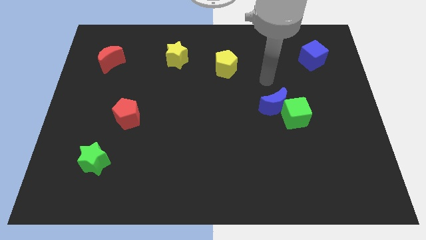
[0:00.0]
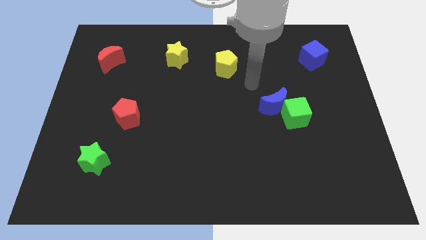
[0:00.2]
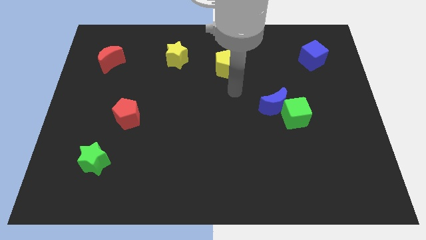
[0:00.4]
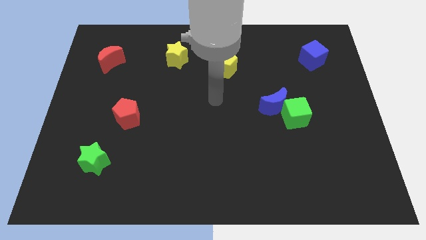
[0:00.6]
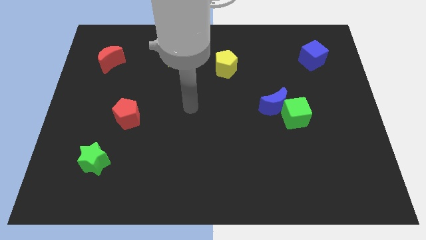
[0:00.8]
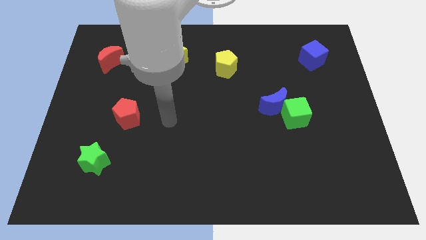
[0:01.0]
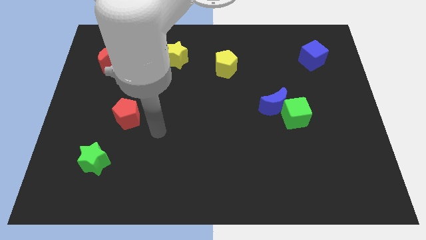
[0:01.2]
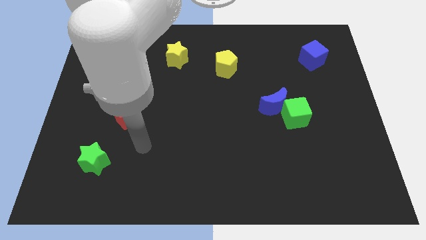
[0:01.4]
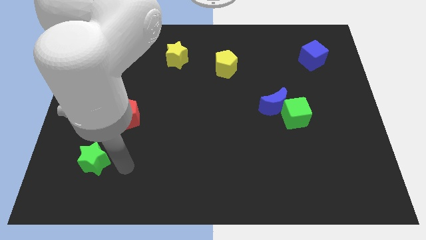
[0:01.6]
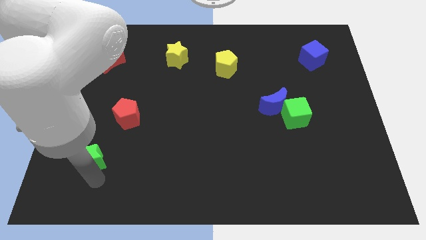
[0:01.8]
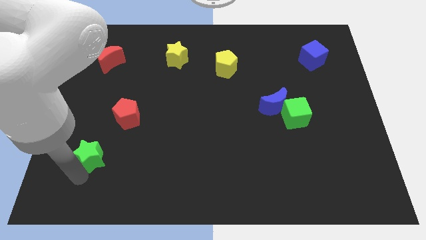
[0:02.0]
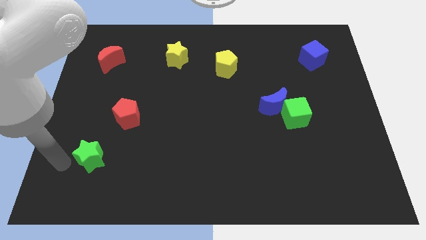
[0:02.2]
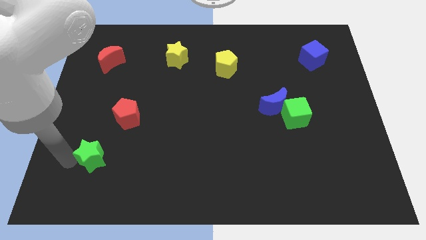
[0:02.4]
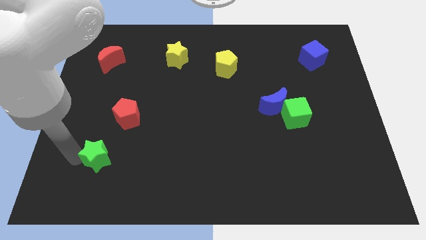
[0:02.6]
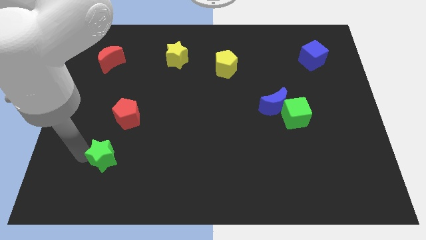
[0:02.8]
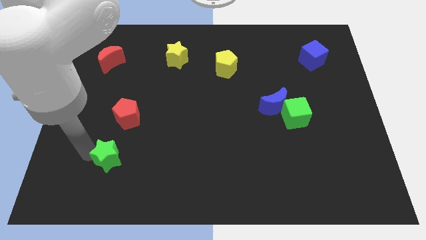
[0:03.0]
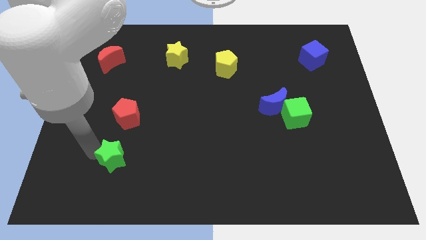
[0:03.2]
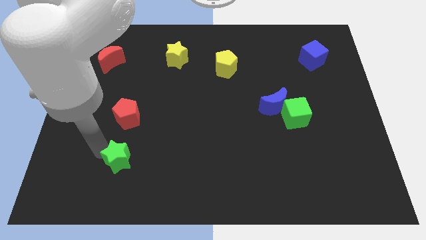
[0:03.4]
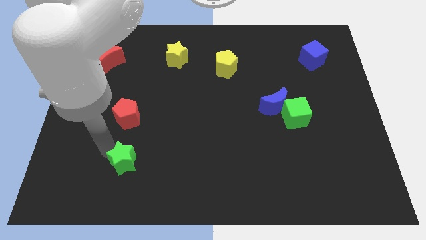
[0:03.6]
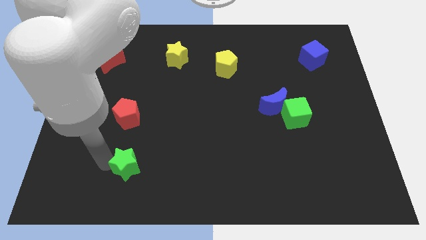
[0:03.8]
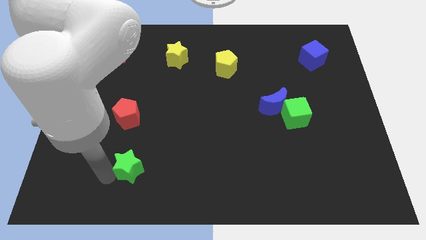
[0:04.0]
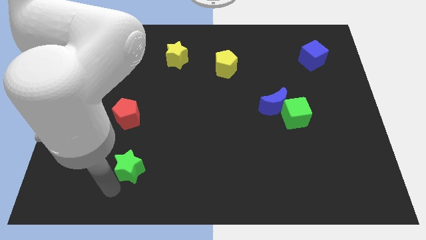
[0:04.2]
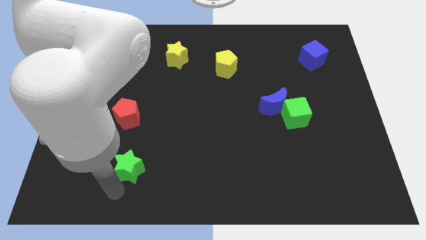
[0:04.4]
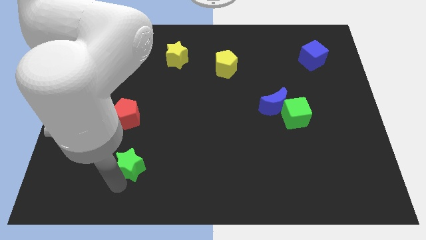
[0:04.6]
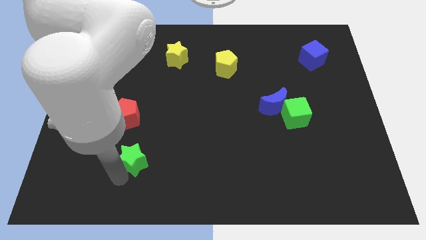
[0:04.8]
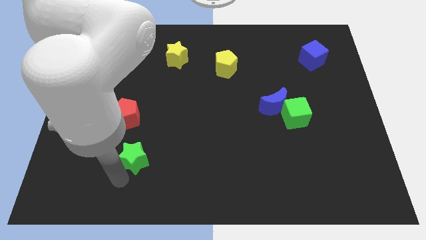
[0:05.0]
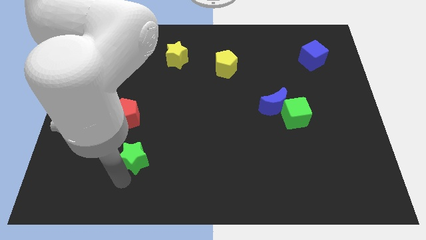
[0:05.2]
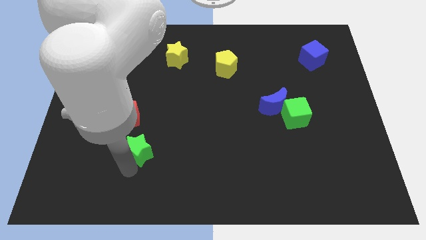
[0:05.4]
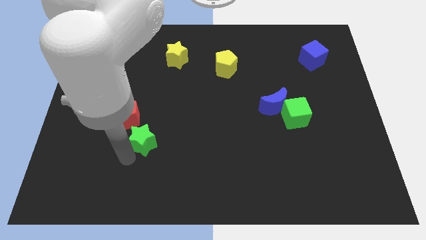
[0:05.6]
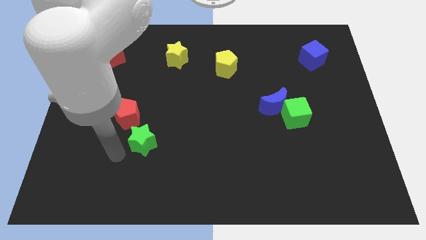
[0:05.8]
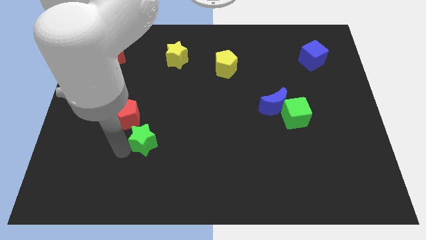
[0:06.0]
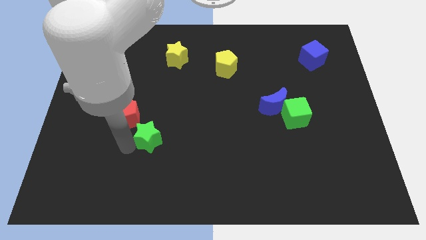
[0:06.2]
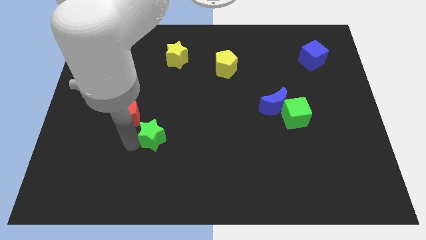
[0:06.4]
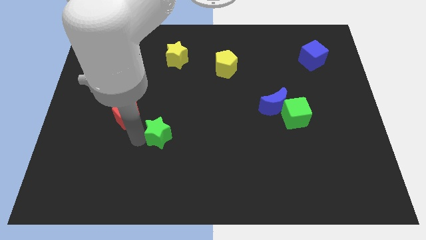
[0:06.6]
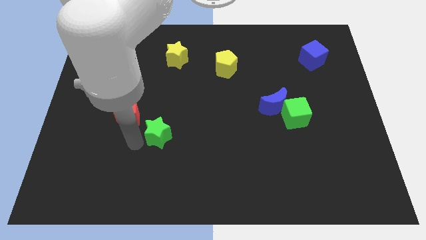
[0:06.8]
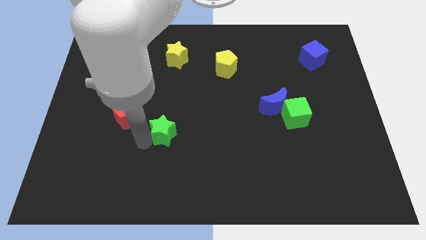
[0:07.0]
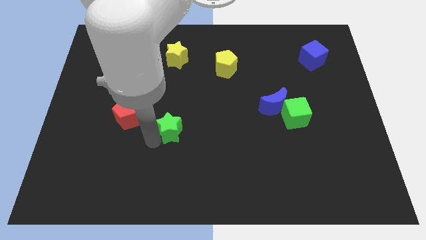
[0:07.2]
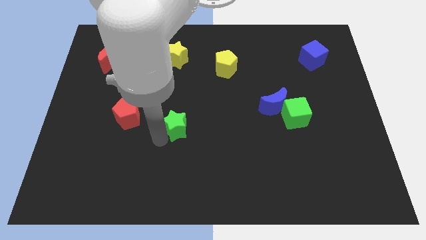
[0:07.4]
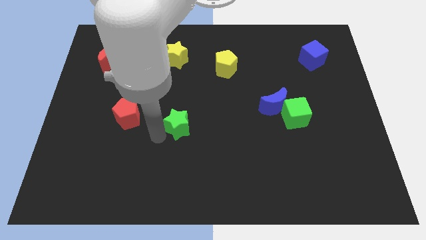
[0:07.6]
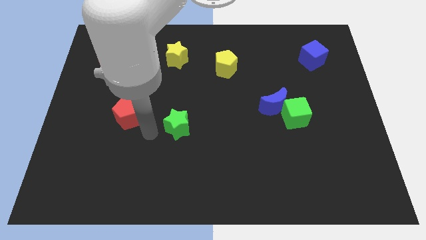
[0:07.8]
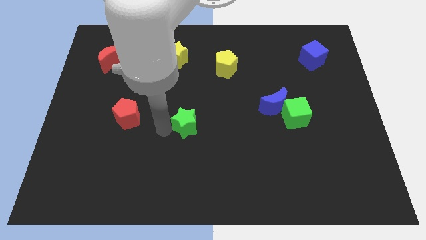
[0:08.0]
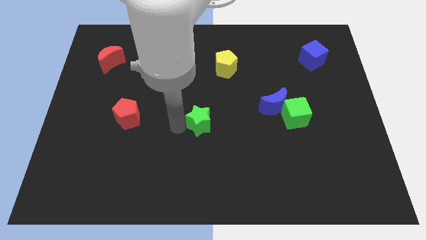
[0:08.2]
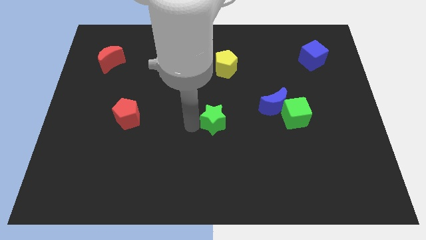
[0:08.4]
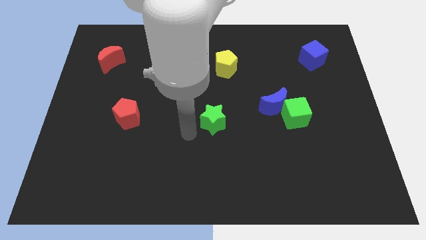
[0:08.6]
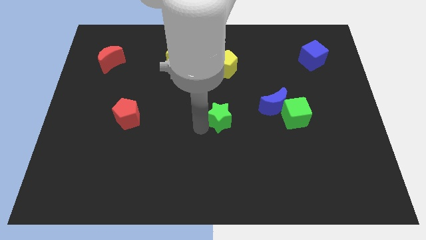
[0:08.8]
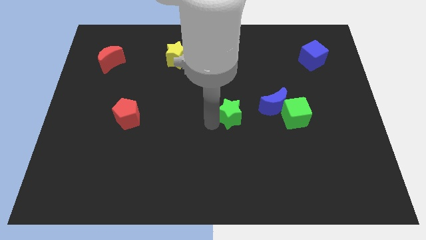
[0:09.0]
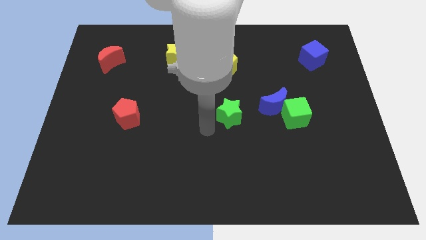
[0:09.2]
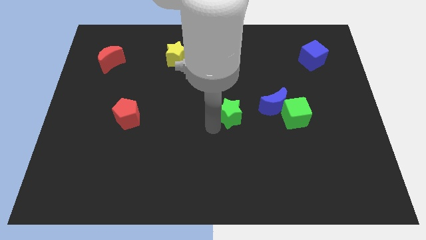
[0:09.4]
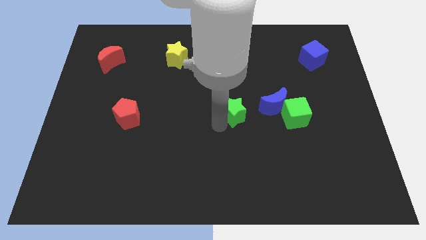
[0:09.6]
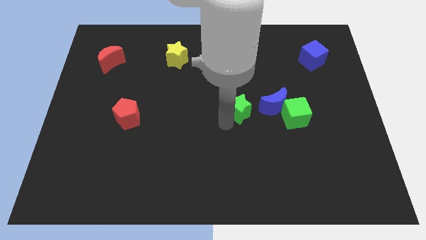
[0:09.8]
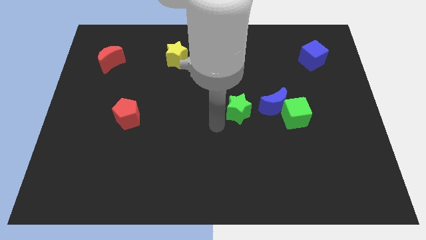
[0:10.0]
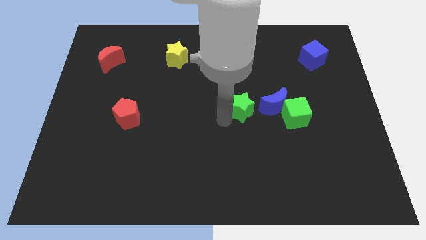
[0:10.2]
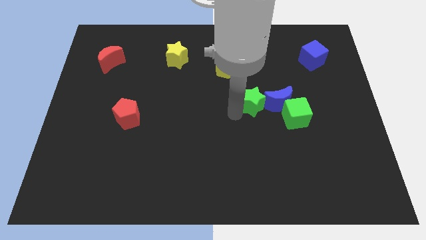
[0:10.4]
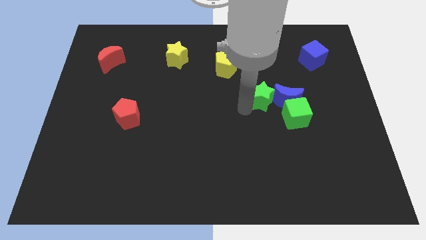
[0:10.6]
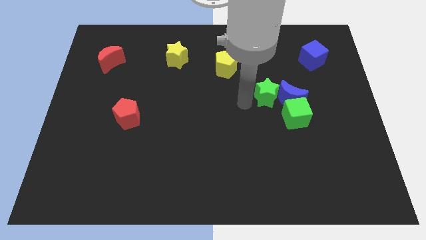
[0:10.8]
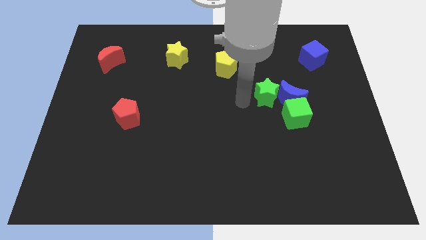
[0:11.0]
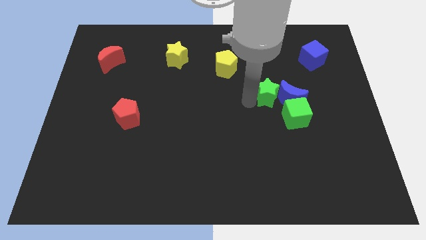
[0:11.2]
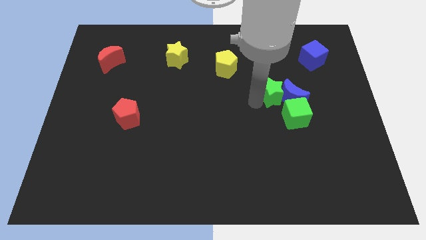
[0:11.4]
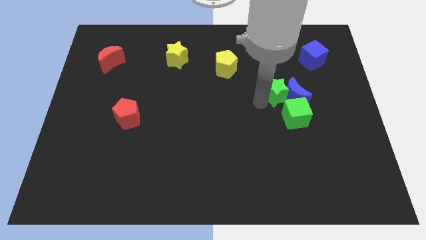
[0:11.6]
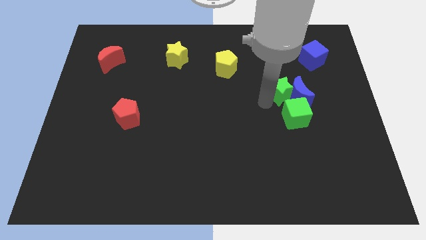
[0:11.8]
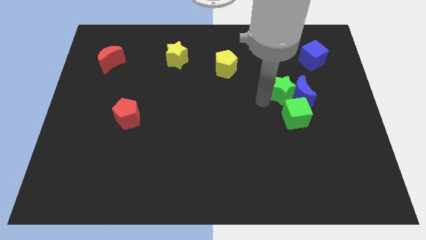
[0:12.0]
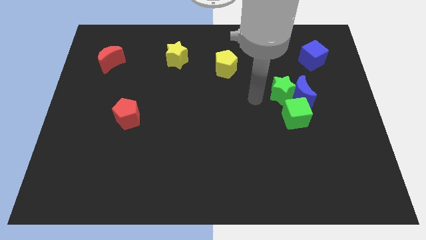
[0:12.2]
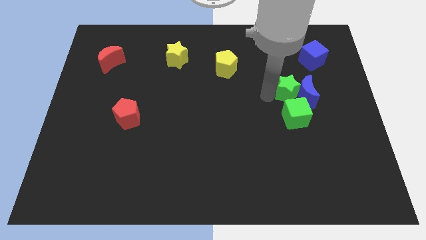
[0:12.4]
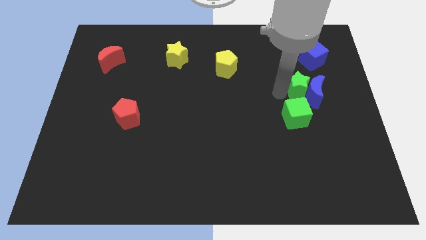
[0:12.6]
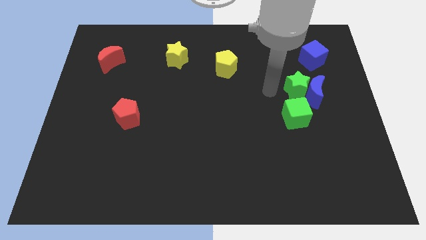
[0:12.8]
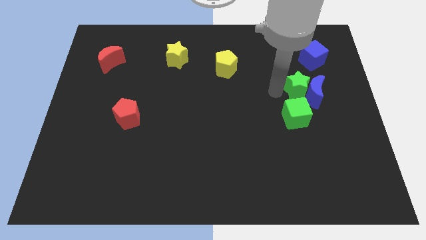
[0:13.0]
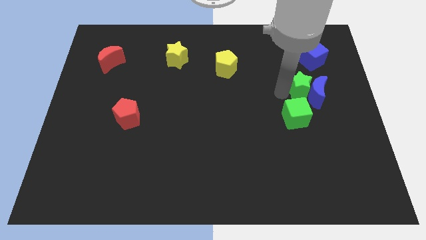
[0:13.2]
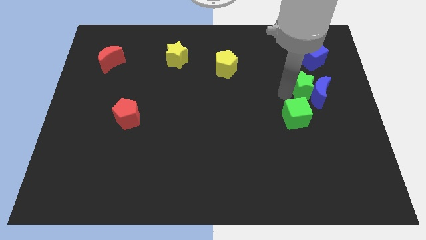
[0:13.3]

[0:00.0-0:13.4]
put the green star below the blue cube
